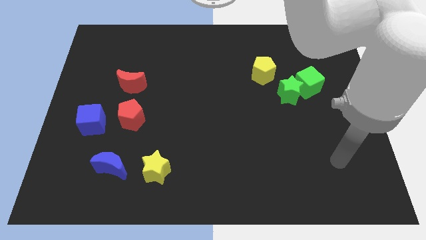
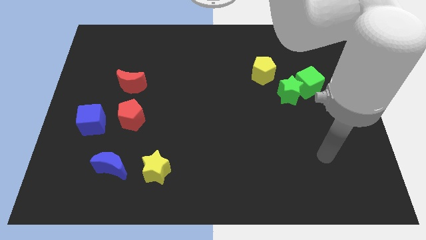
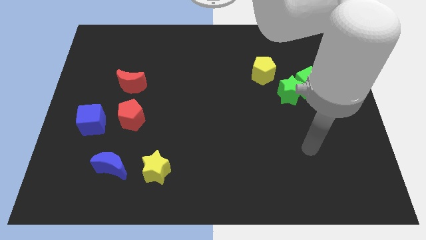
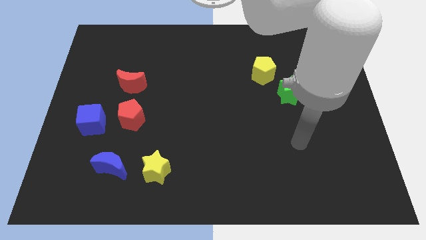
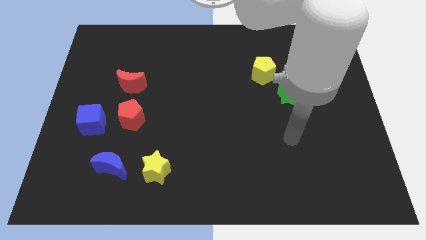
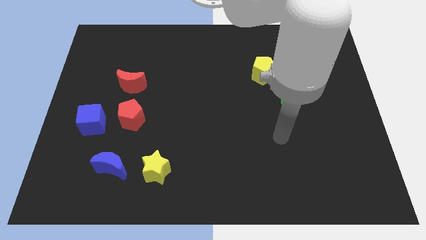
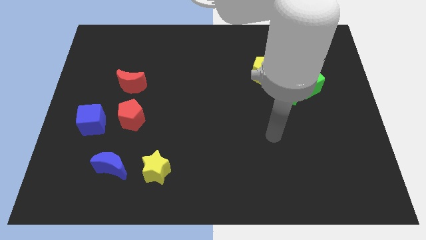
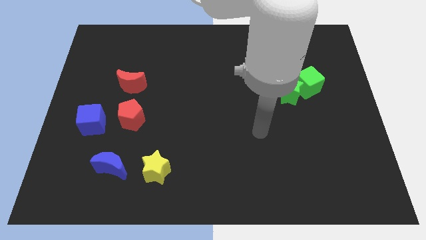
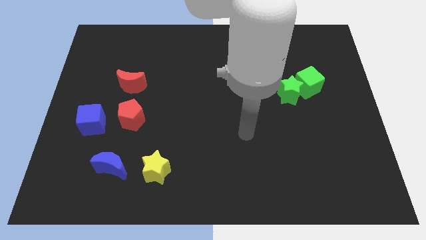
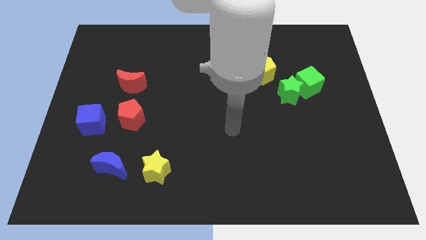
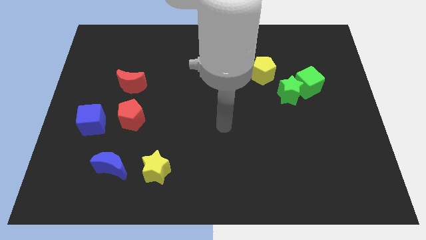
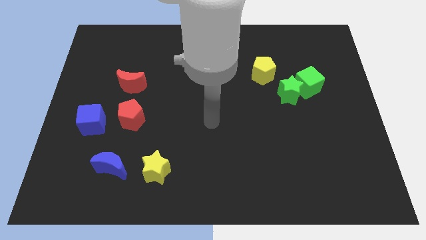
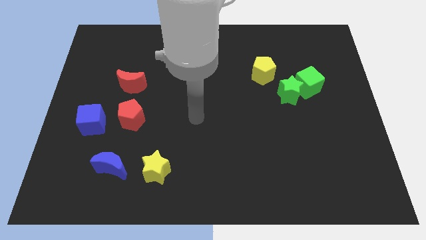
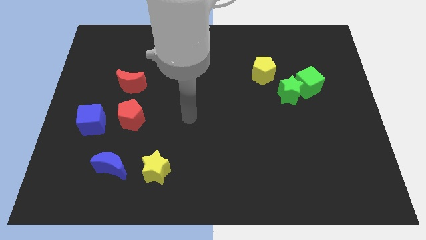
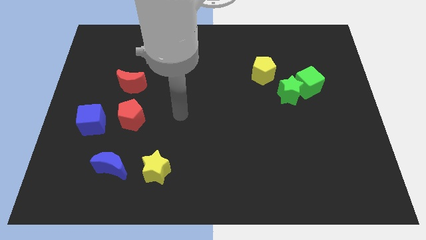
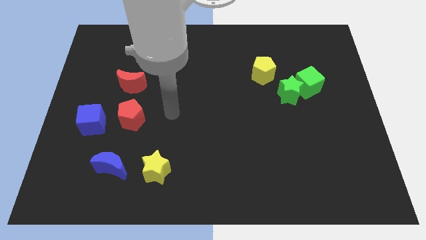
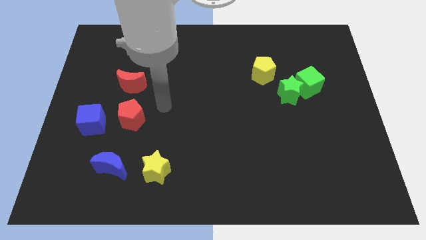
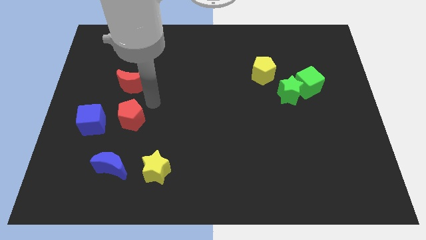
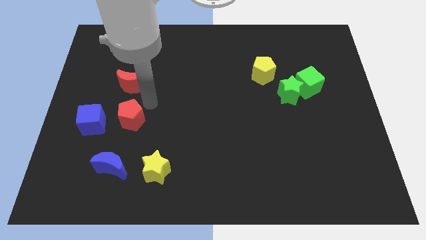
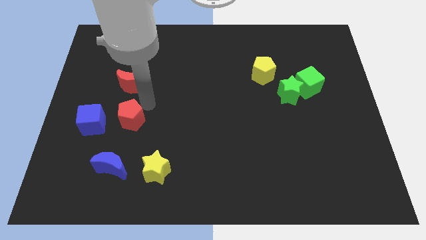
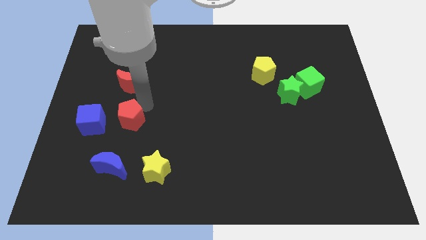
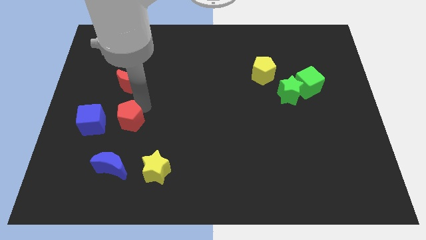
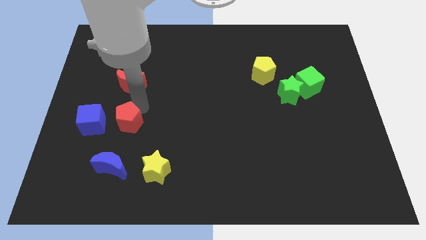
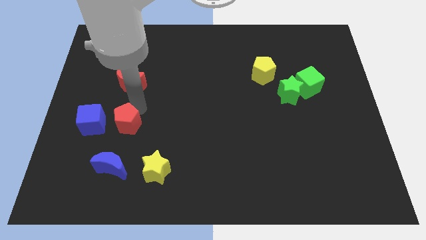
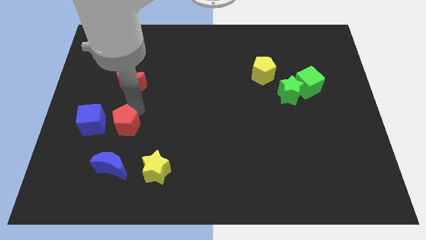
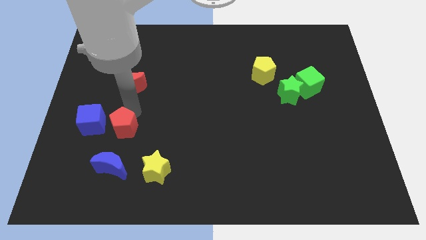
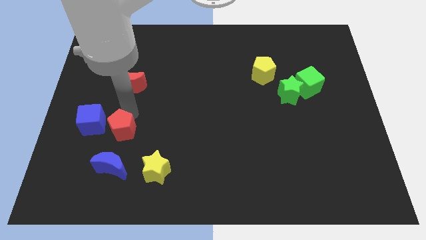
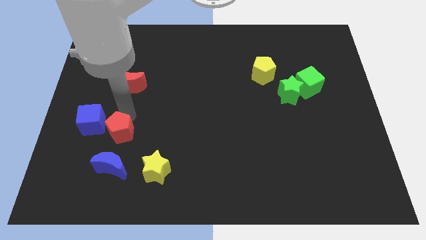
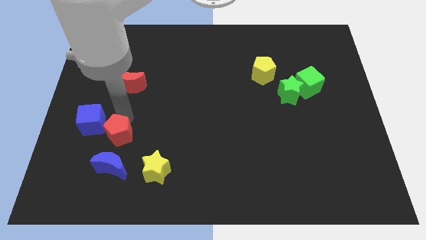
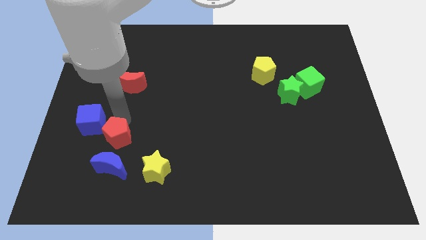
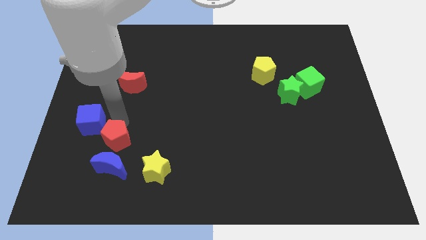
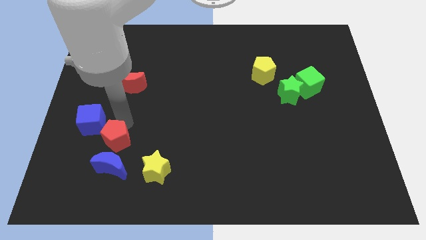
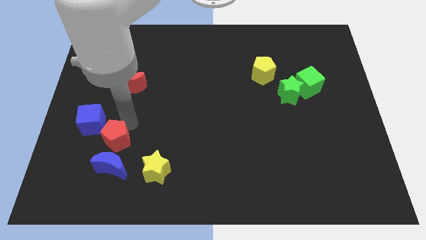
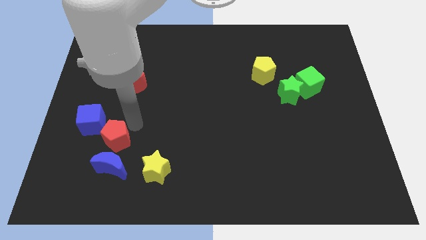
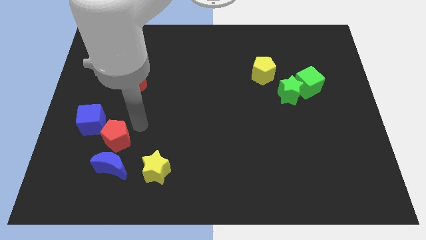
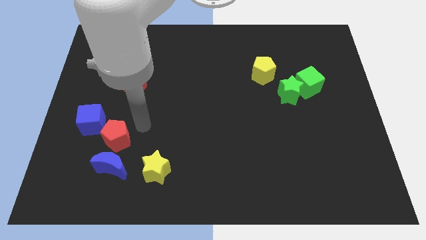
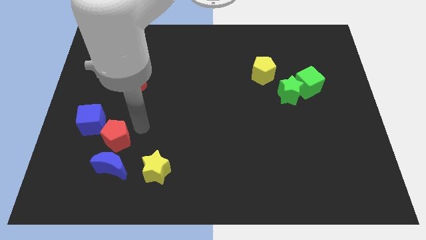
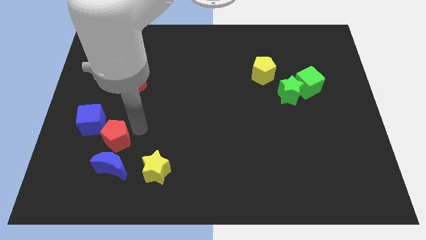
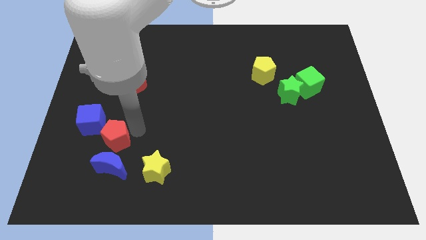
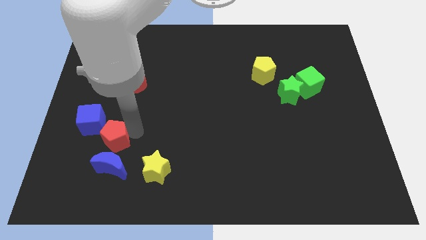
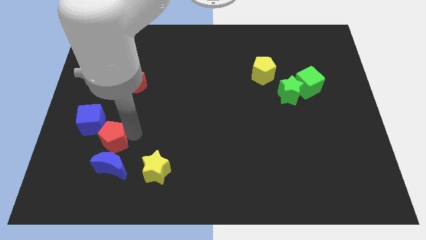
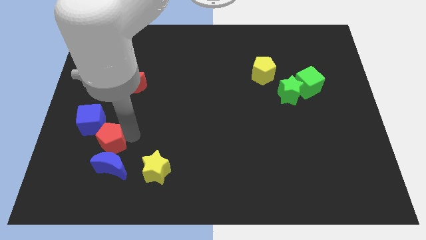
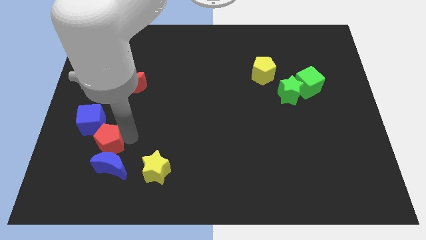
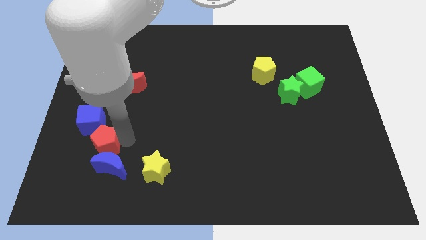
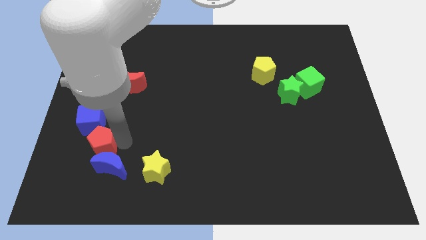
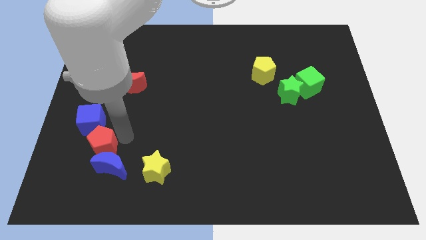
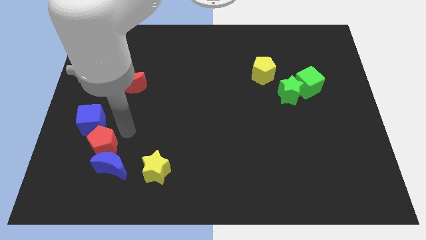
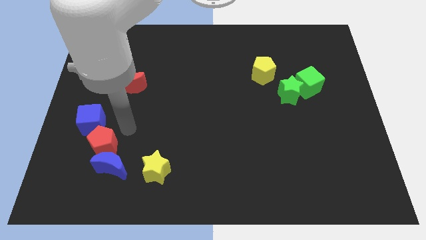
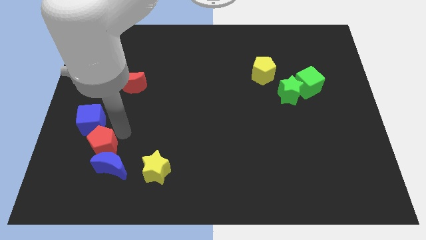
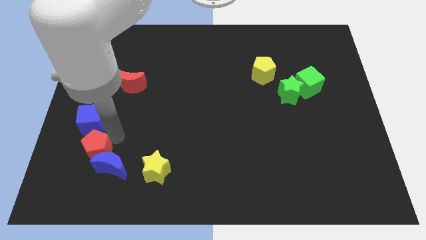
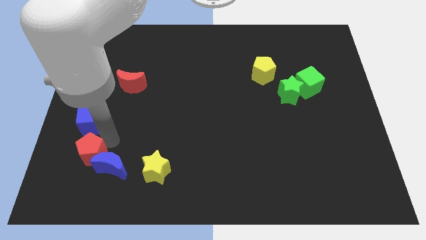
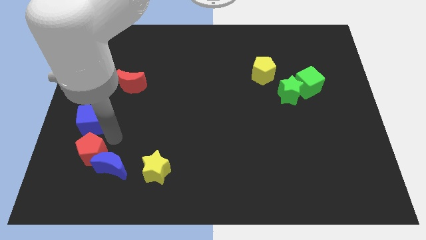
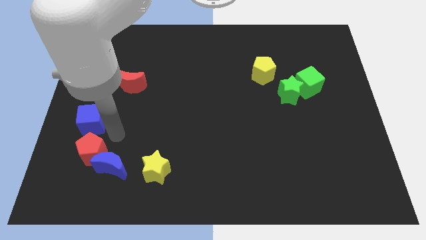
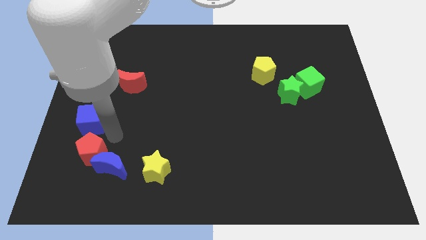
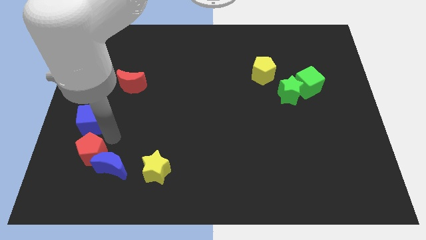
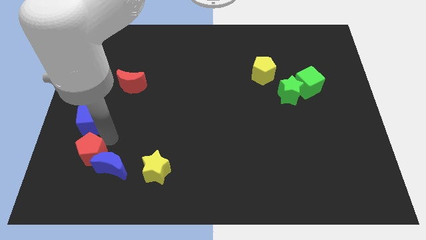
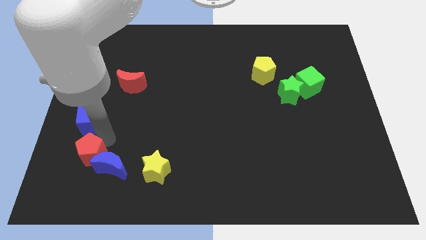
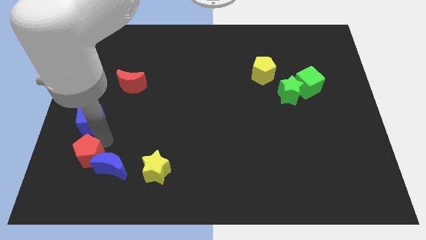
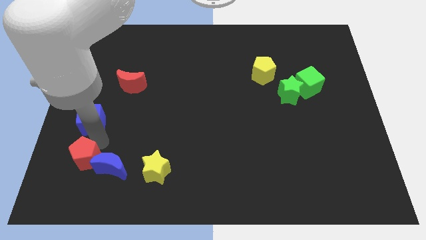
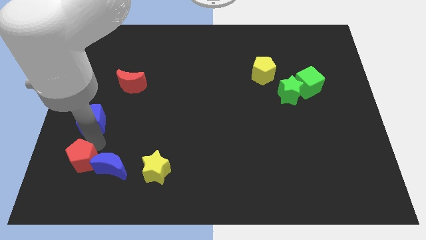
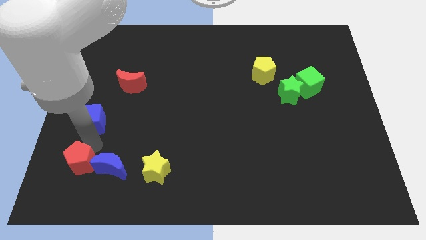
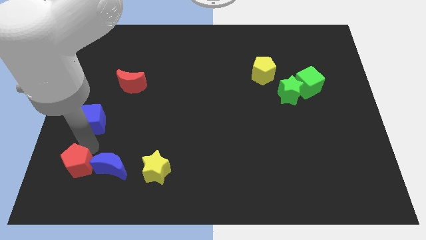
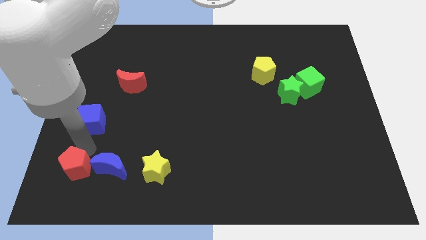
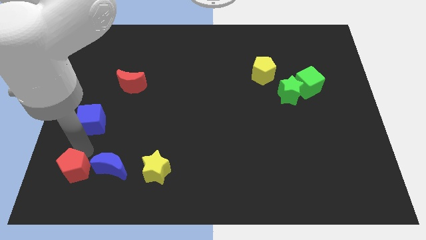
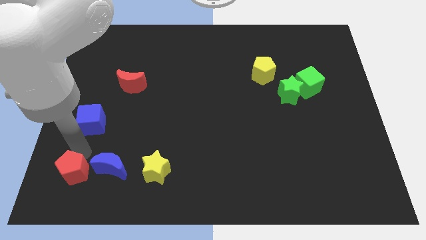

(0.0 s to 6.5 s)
slide the red pentagon to the lower left corner

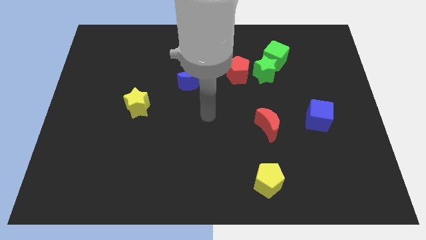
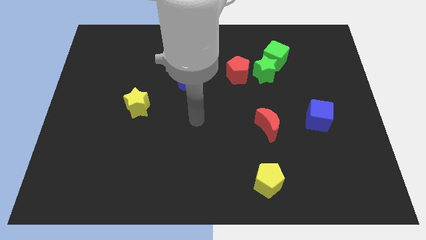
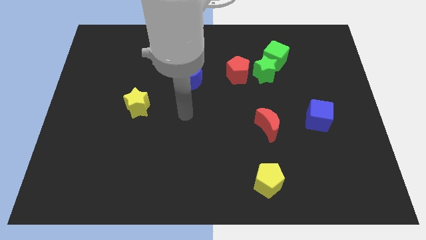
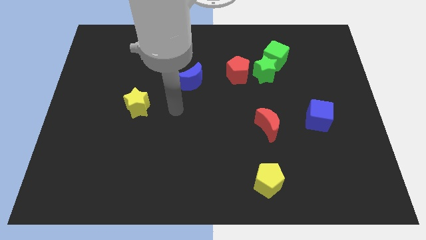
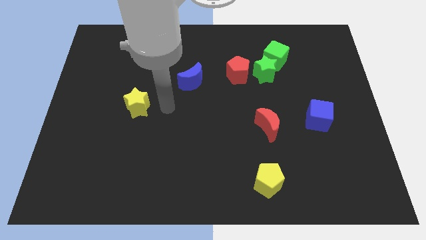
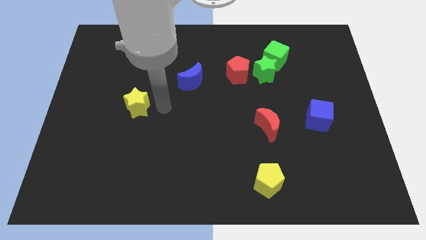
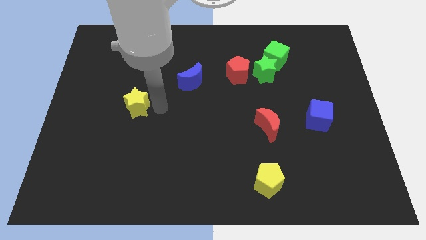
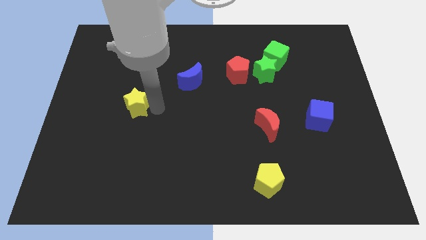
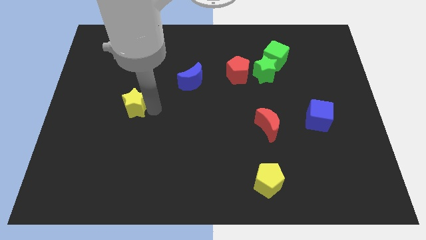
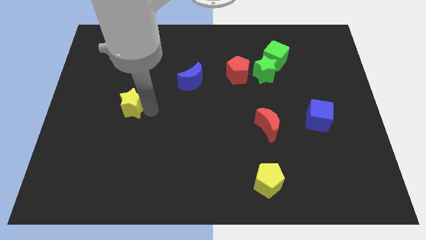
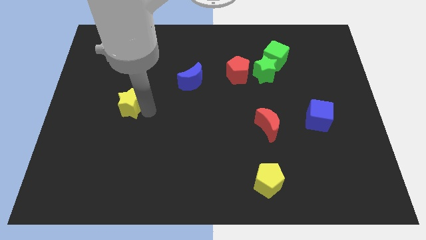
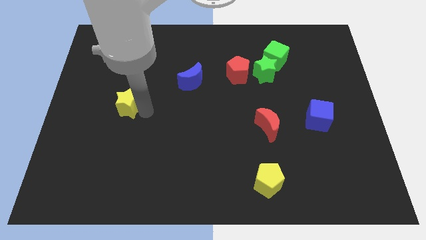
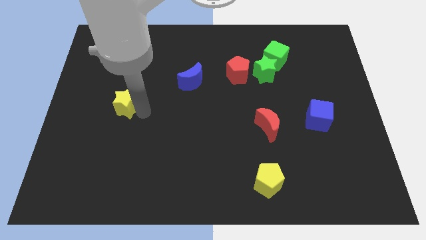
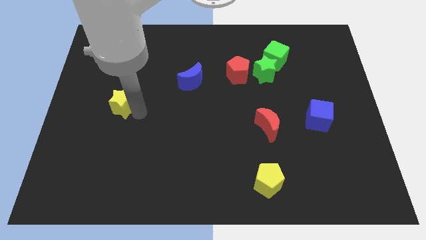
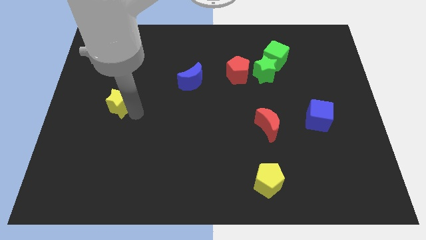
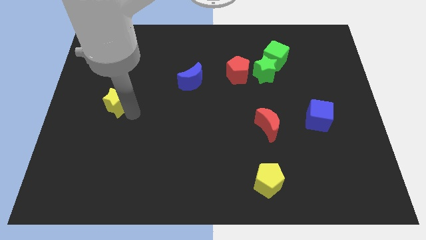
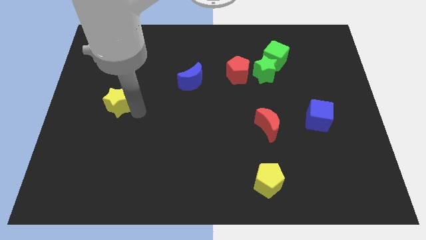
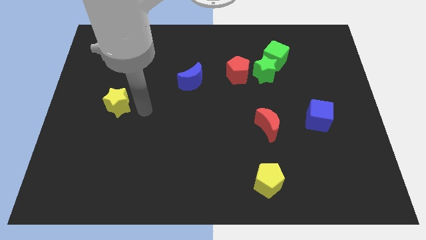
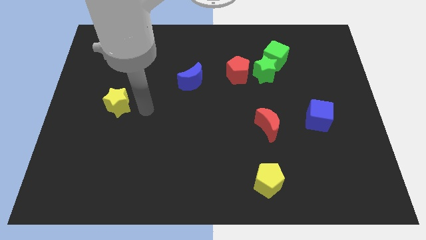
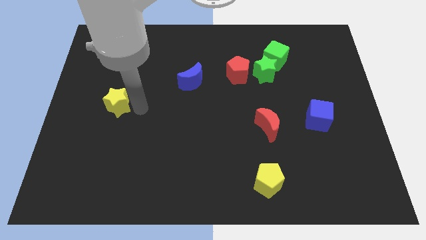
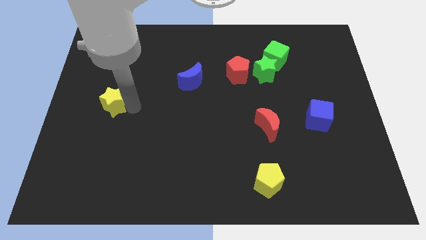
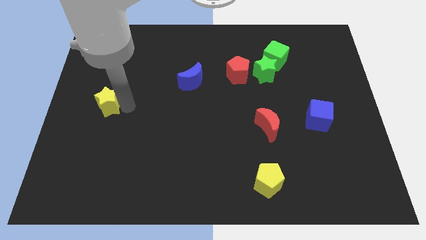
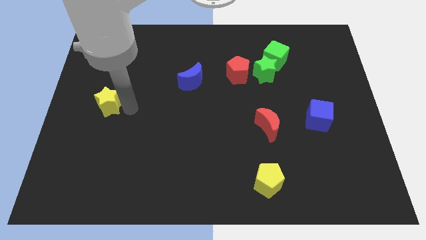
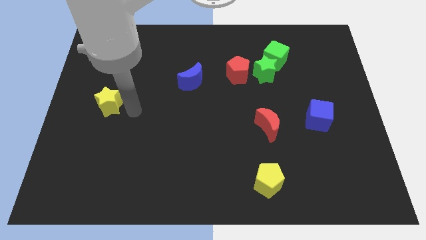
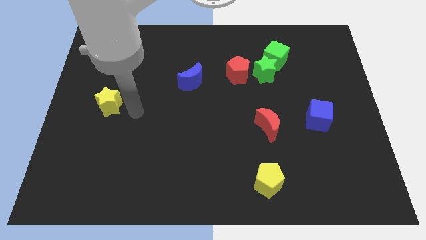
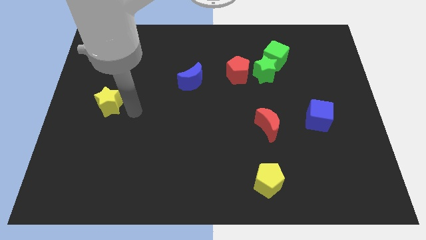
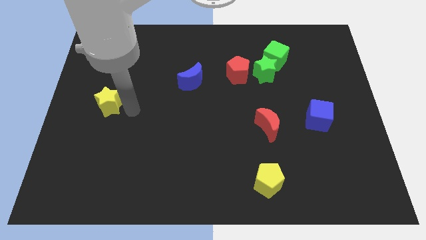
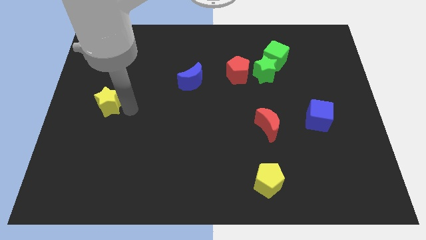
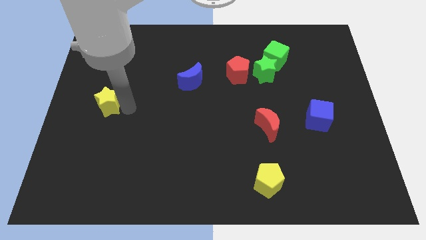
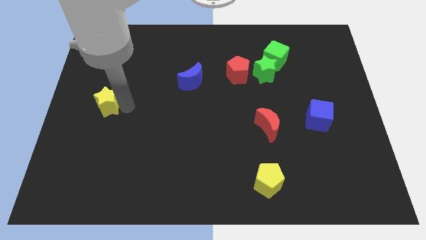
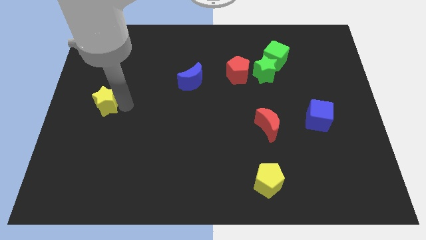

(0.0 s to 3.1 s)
slide the yellow star to the center left
